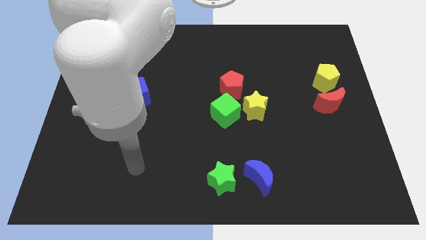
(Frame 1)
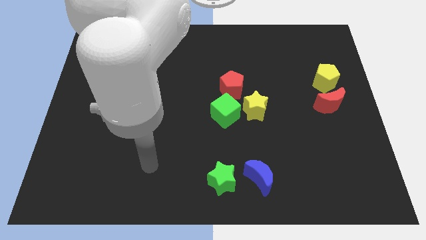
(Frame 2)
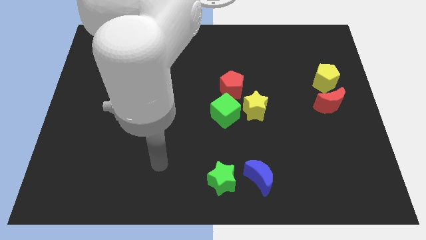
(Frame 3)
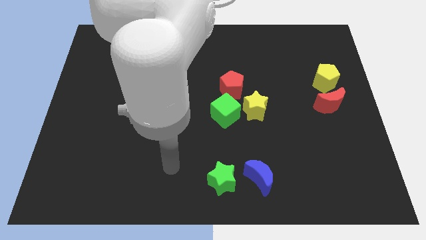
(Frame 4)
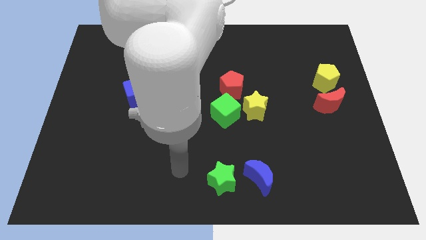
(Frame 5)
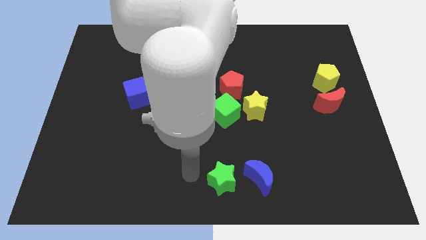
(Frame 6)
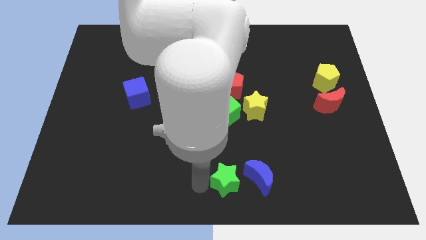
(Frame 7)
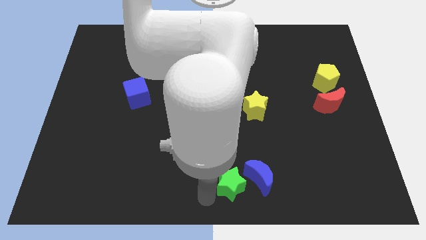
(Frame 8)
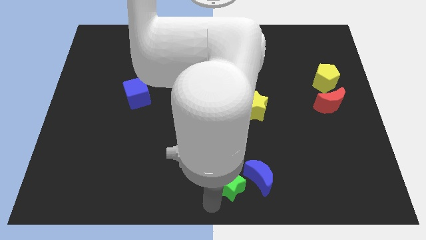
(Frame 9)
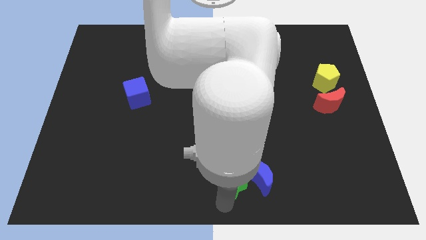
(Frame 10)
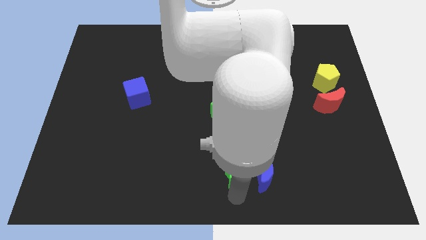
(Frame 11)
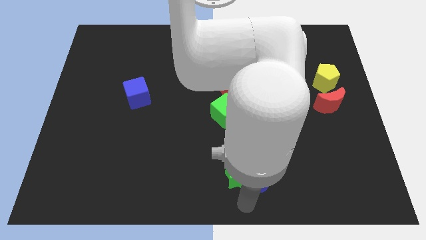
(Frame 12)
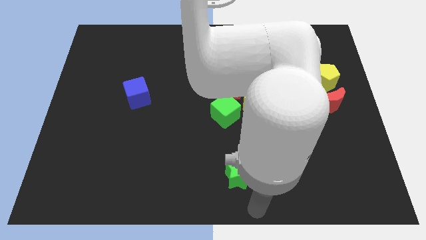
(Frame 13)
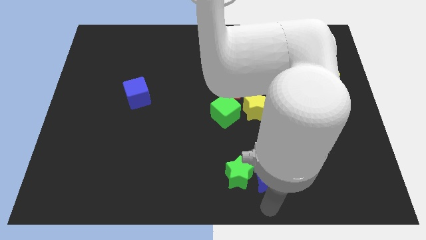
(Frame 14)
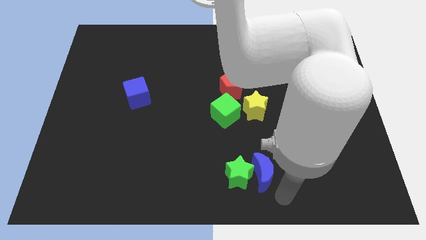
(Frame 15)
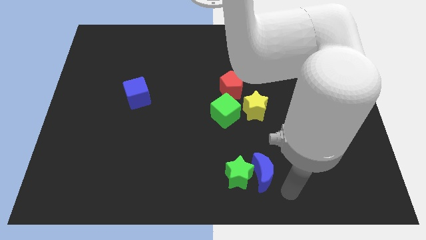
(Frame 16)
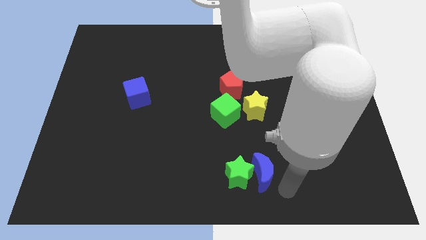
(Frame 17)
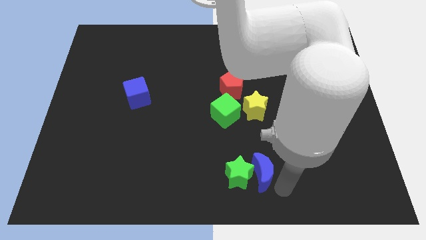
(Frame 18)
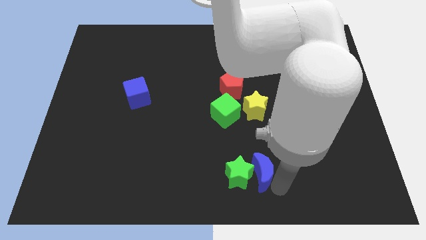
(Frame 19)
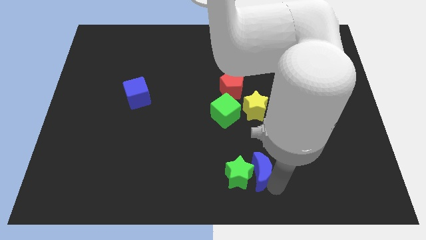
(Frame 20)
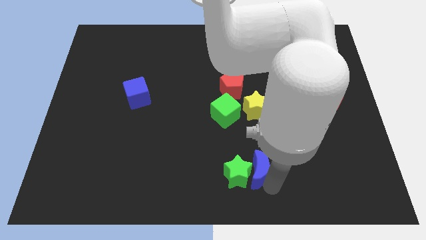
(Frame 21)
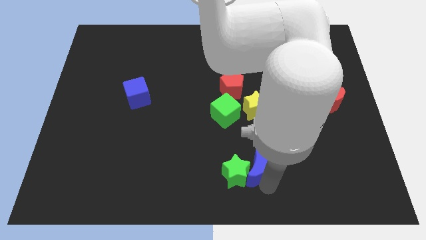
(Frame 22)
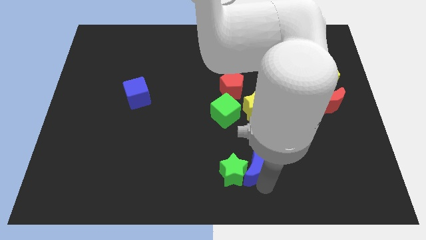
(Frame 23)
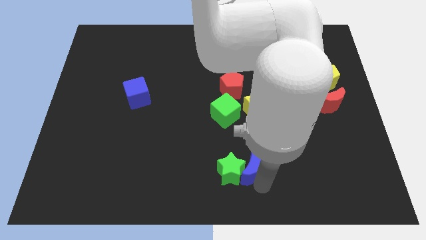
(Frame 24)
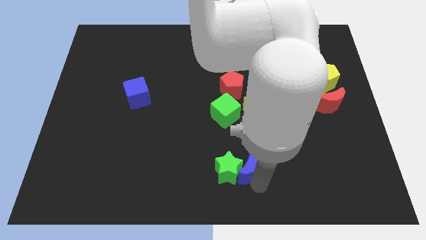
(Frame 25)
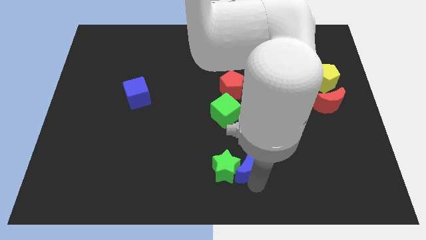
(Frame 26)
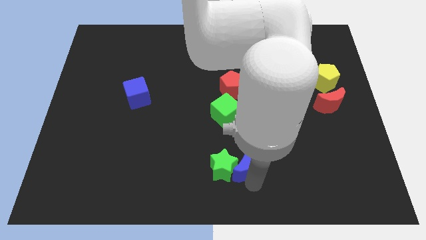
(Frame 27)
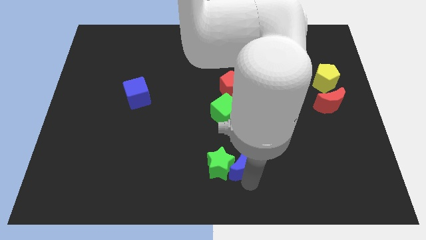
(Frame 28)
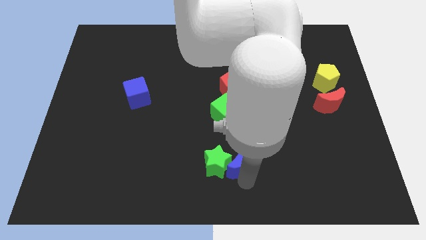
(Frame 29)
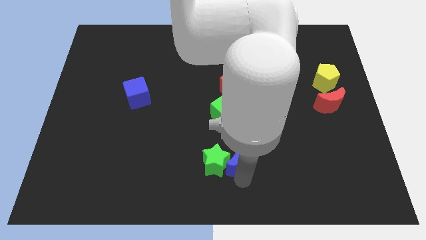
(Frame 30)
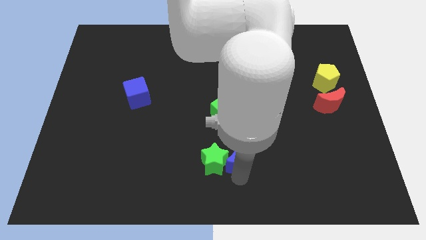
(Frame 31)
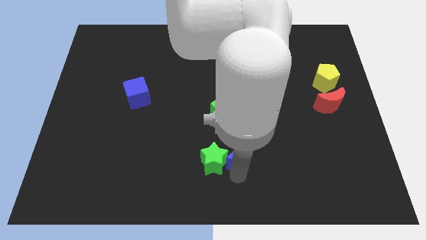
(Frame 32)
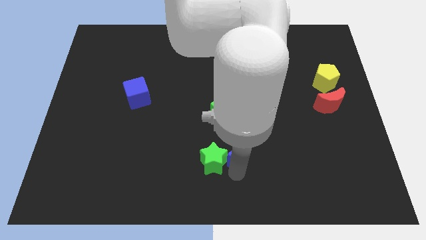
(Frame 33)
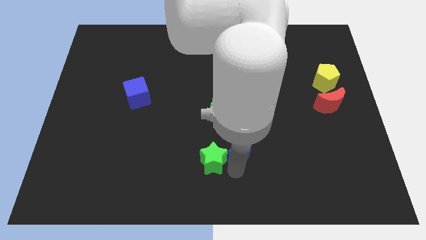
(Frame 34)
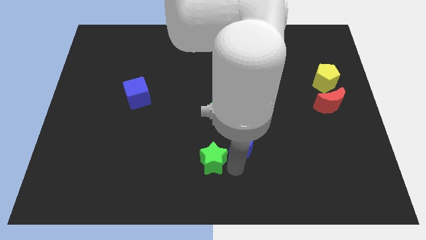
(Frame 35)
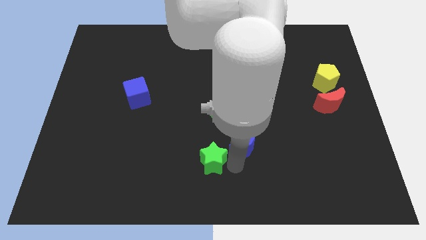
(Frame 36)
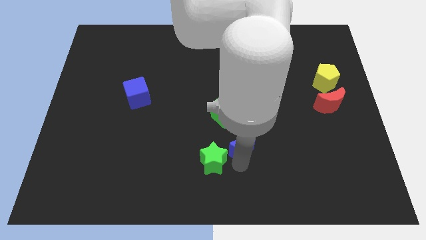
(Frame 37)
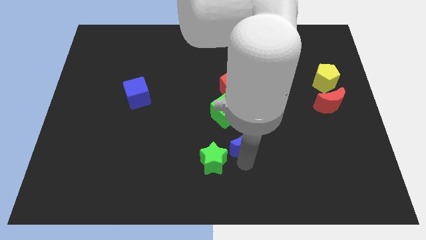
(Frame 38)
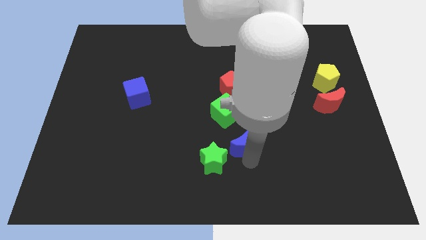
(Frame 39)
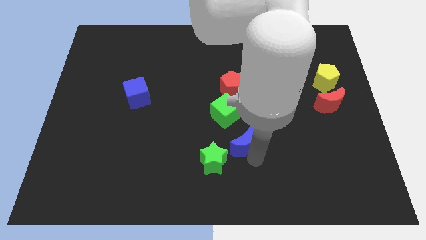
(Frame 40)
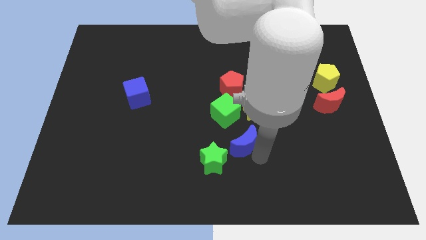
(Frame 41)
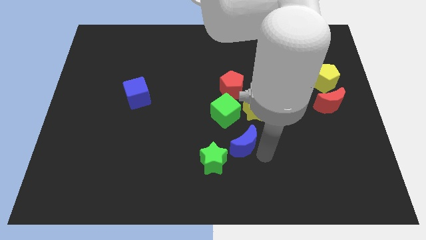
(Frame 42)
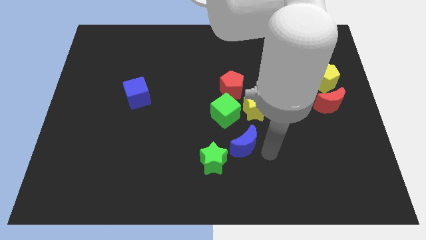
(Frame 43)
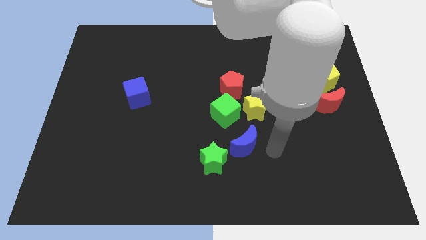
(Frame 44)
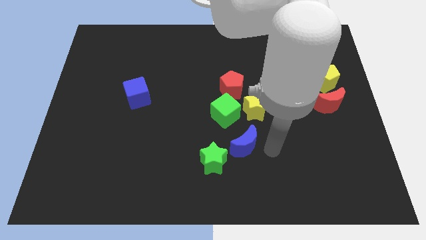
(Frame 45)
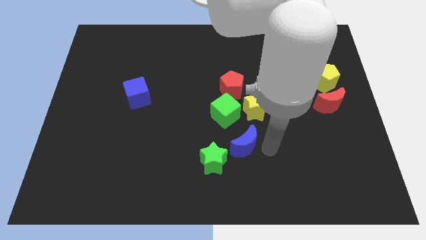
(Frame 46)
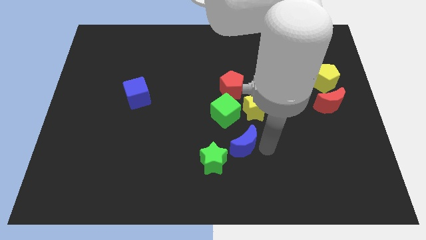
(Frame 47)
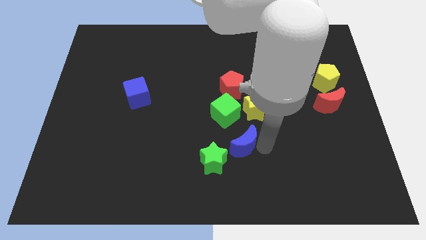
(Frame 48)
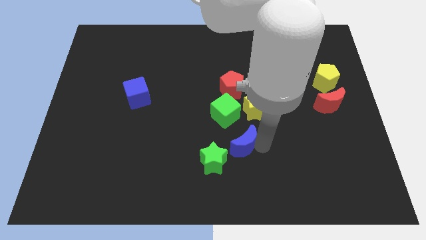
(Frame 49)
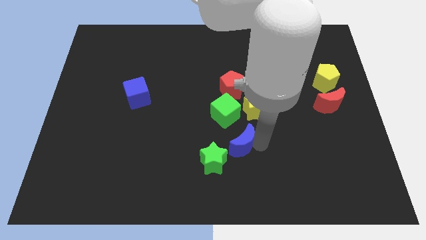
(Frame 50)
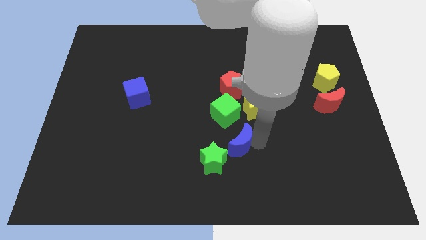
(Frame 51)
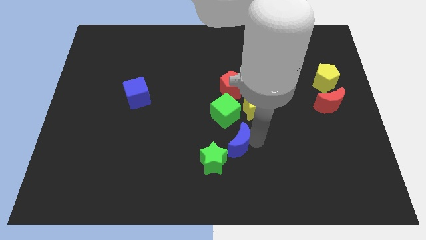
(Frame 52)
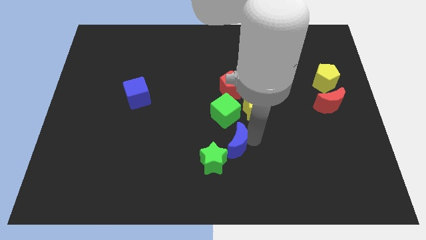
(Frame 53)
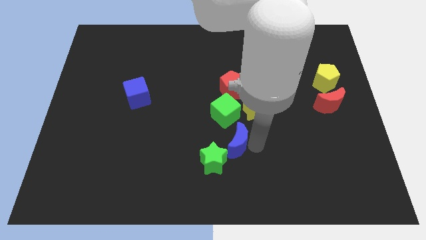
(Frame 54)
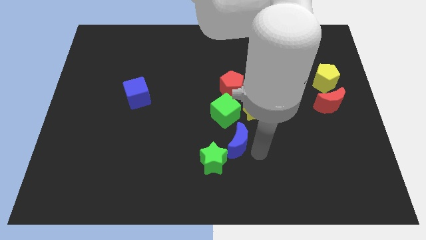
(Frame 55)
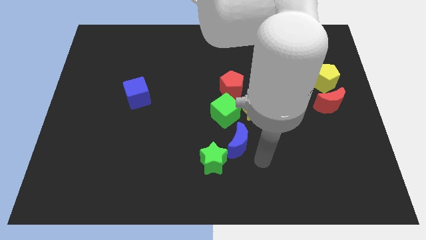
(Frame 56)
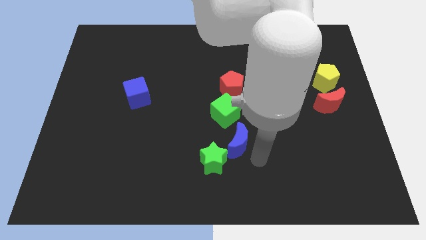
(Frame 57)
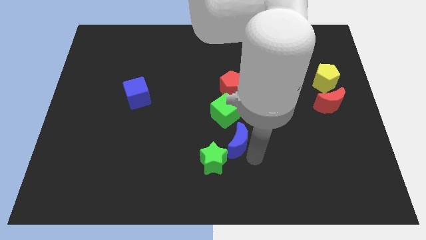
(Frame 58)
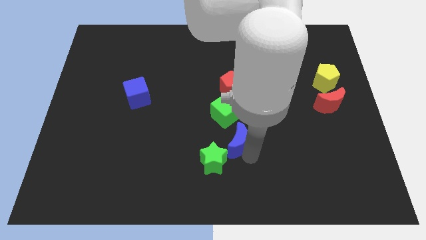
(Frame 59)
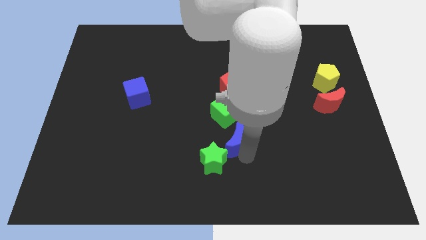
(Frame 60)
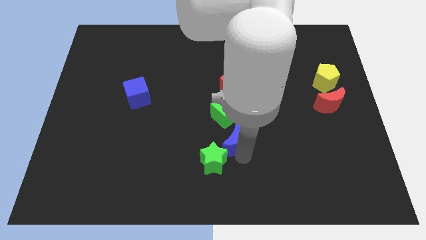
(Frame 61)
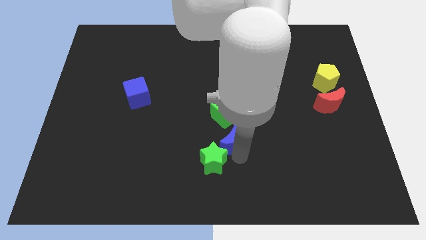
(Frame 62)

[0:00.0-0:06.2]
put the blue moon to the middle

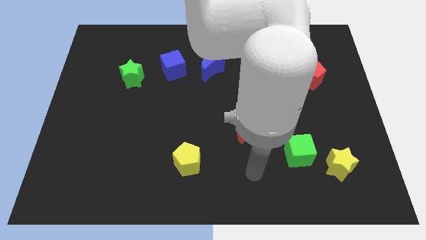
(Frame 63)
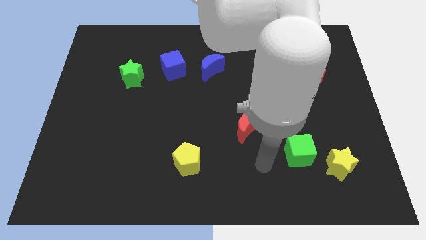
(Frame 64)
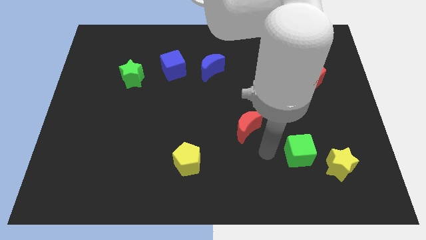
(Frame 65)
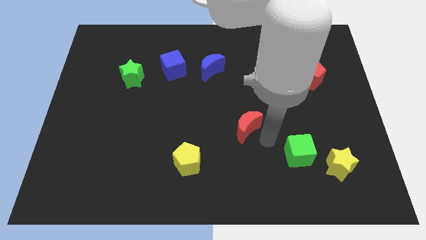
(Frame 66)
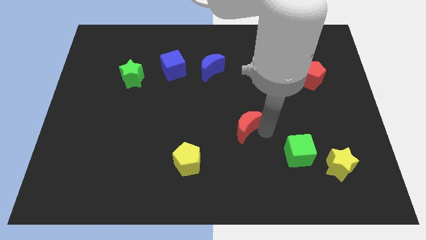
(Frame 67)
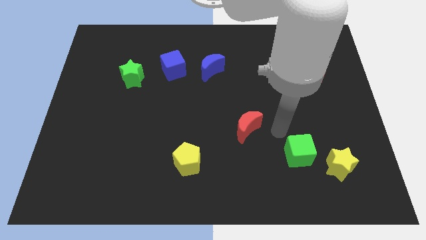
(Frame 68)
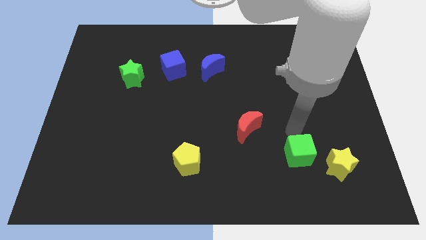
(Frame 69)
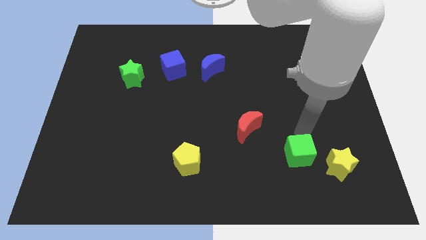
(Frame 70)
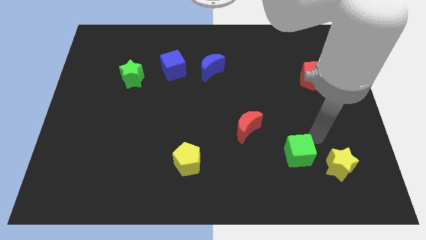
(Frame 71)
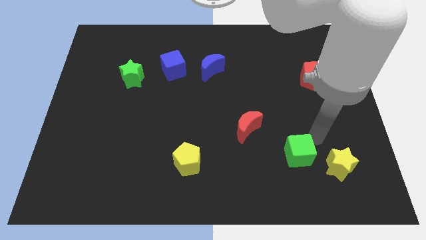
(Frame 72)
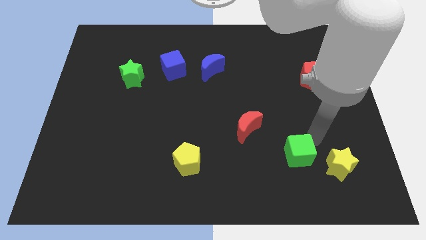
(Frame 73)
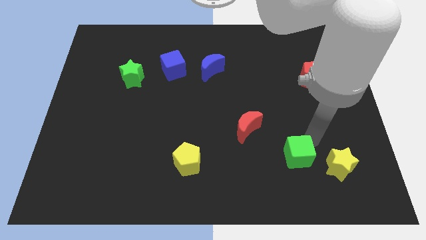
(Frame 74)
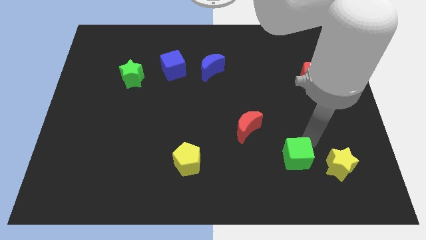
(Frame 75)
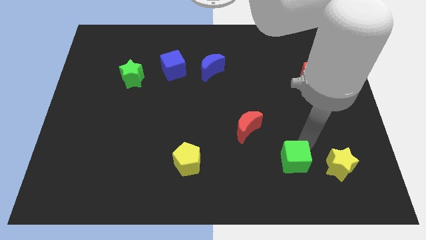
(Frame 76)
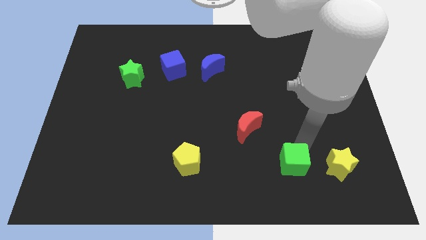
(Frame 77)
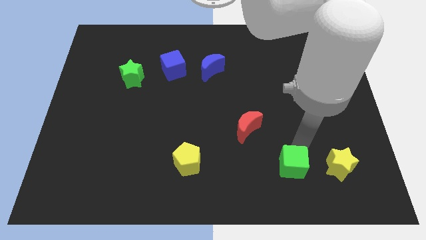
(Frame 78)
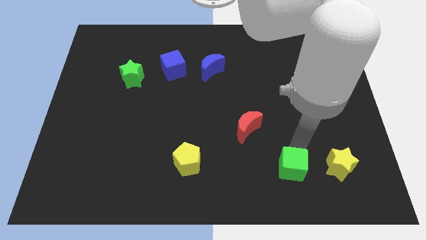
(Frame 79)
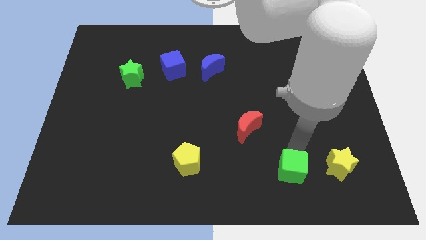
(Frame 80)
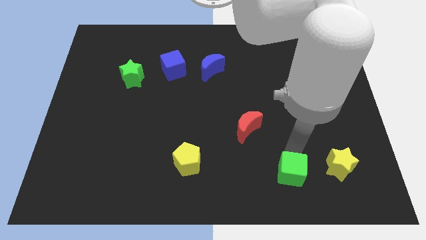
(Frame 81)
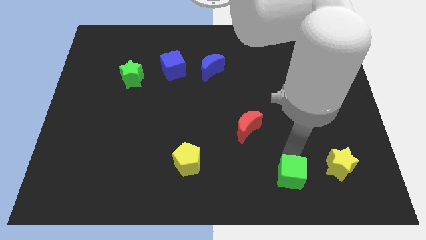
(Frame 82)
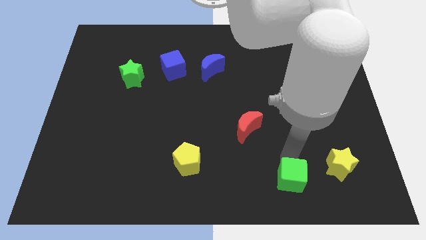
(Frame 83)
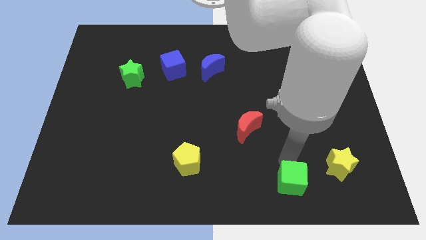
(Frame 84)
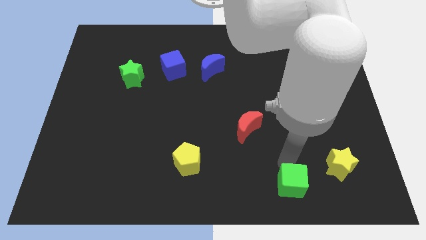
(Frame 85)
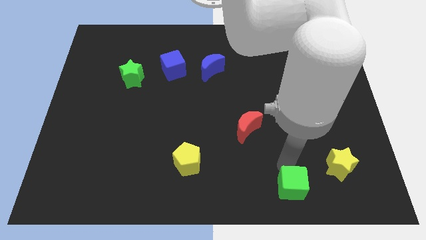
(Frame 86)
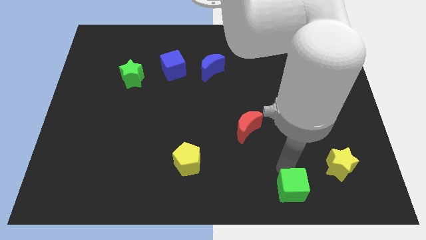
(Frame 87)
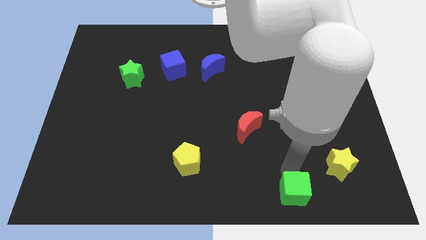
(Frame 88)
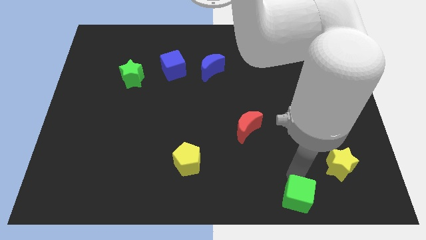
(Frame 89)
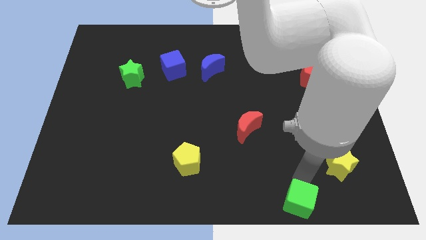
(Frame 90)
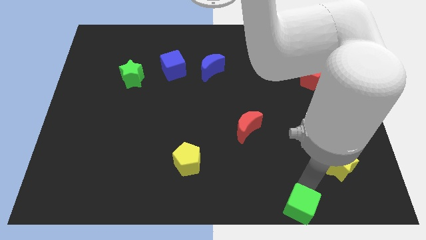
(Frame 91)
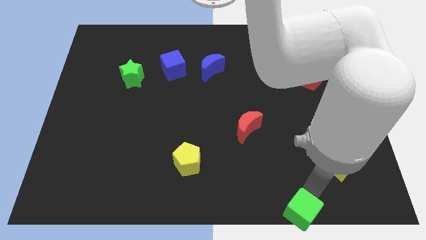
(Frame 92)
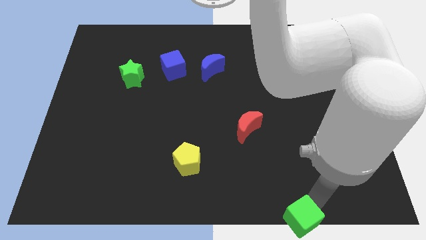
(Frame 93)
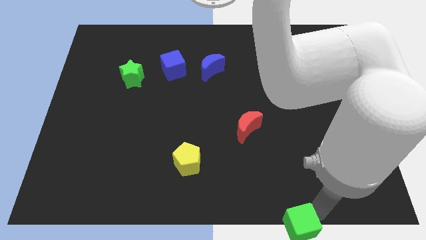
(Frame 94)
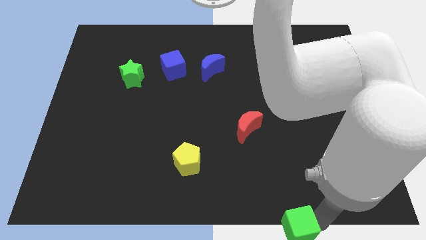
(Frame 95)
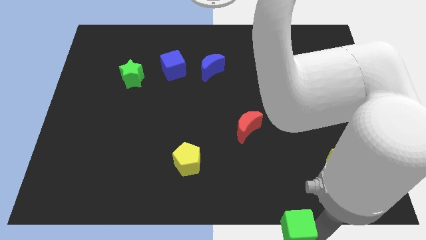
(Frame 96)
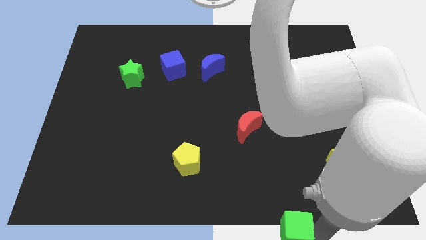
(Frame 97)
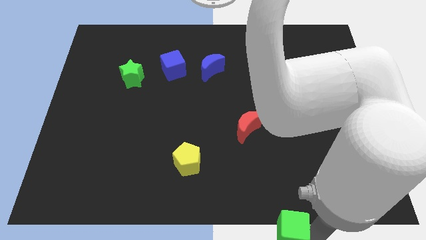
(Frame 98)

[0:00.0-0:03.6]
push the green cube to the bottom
